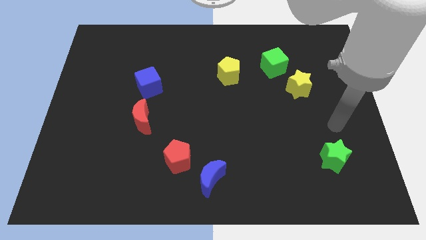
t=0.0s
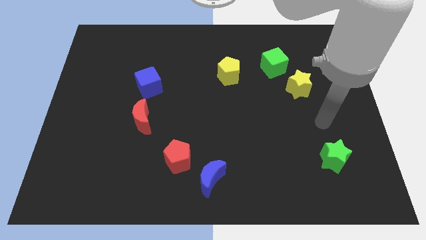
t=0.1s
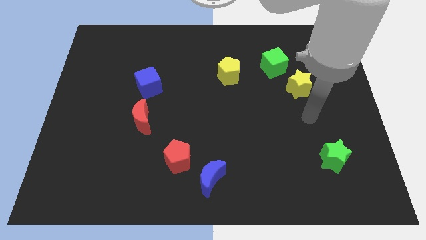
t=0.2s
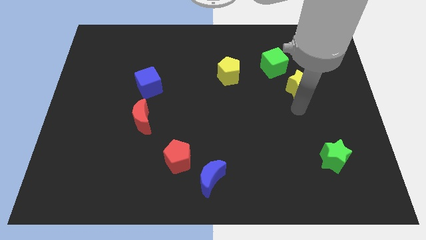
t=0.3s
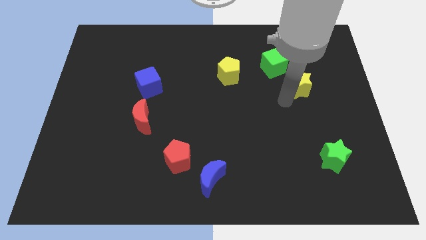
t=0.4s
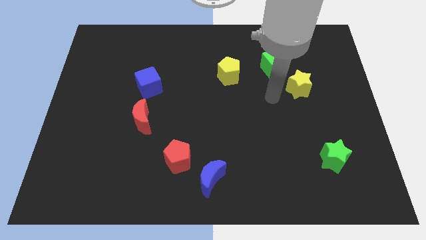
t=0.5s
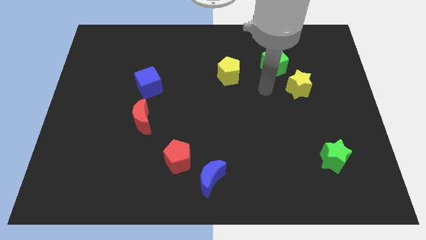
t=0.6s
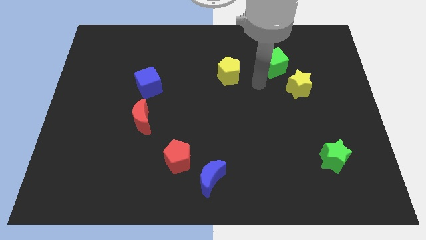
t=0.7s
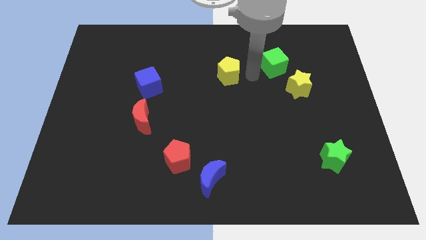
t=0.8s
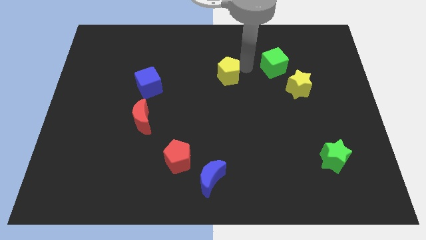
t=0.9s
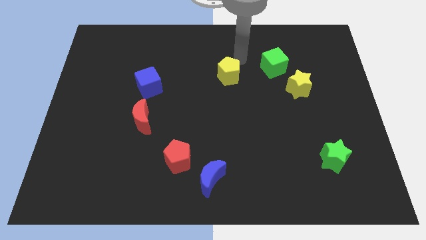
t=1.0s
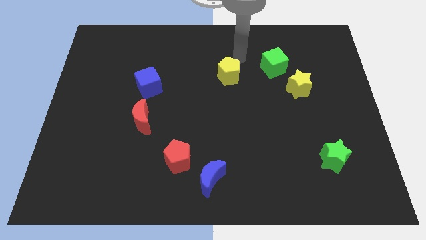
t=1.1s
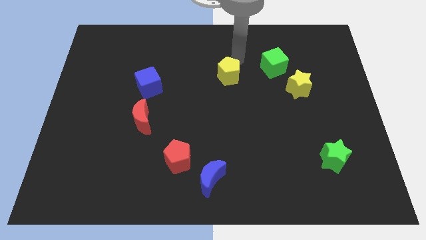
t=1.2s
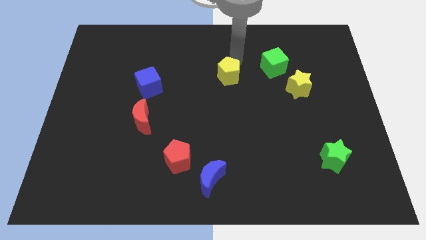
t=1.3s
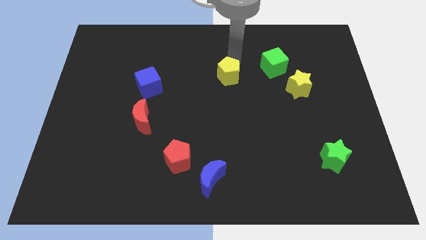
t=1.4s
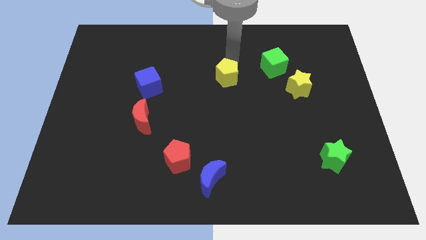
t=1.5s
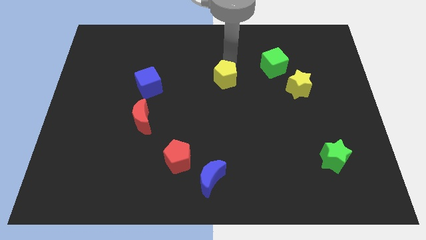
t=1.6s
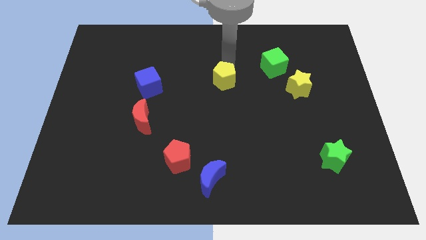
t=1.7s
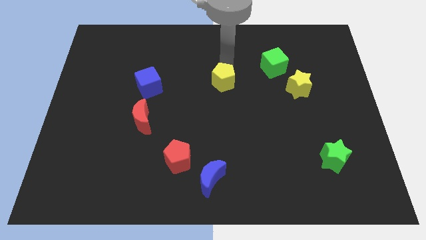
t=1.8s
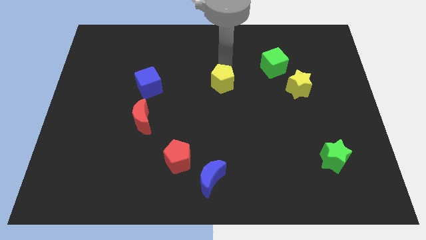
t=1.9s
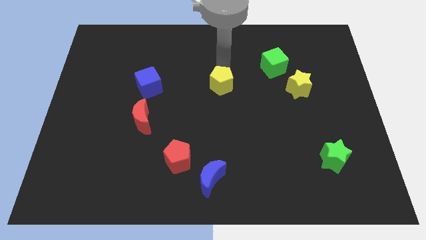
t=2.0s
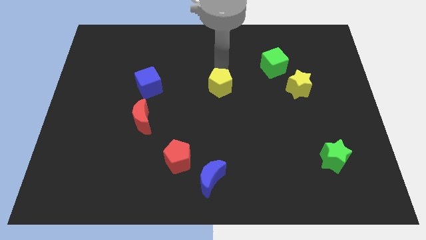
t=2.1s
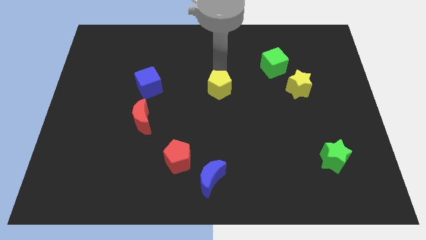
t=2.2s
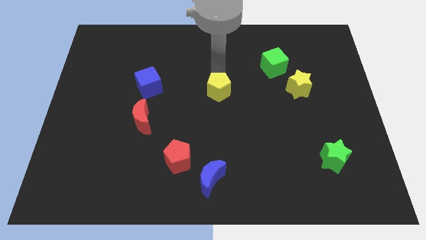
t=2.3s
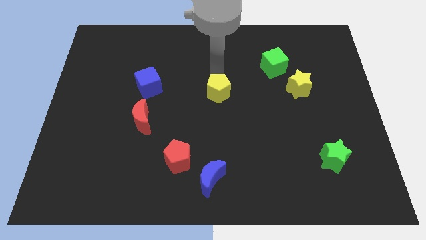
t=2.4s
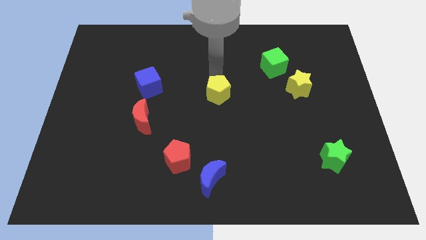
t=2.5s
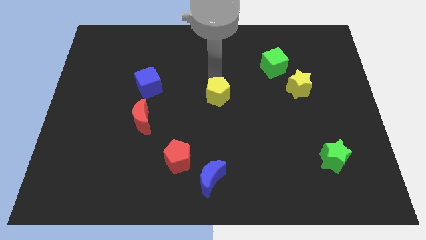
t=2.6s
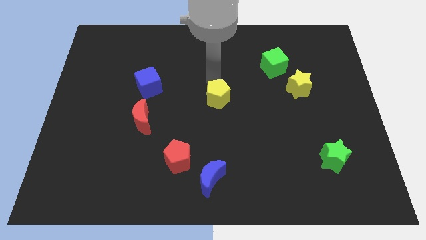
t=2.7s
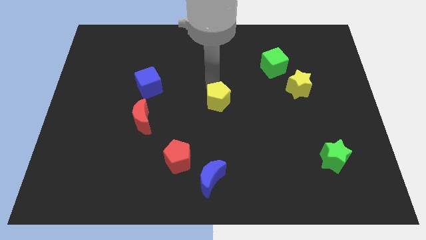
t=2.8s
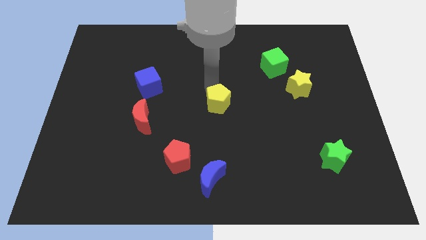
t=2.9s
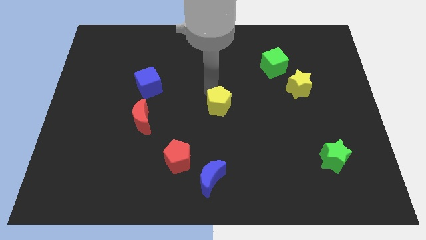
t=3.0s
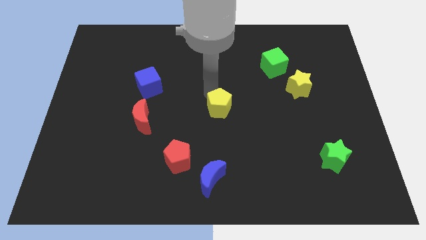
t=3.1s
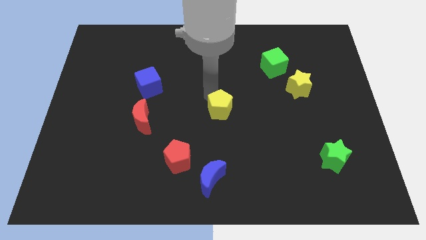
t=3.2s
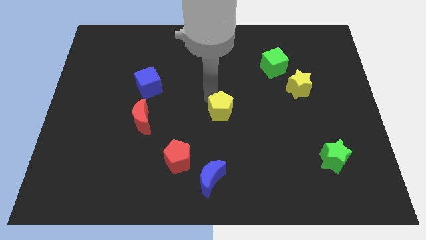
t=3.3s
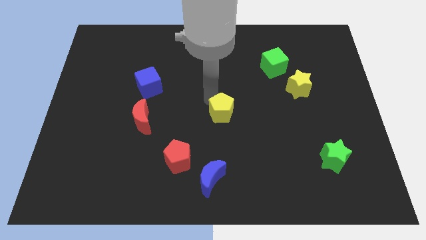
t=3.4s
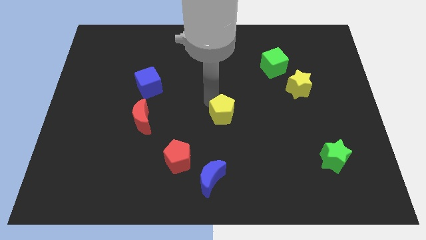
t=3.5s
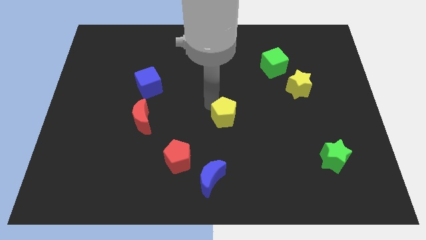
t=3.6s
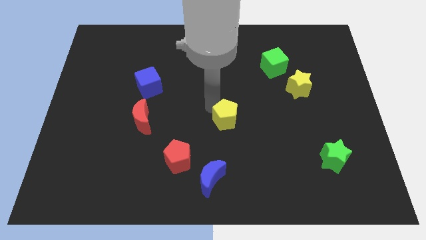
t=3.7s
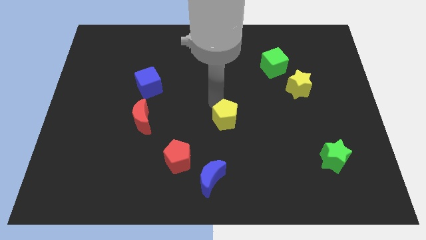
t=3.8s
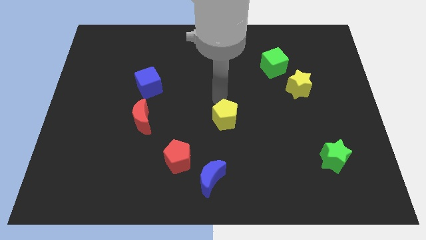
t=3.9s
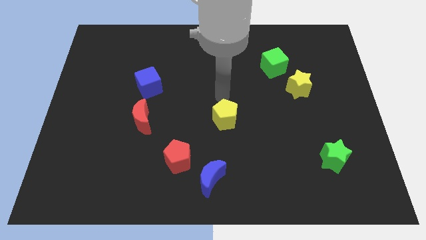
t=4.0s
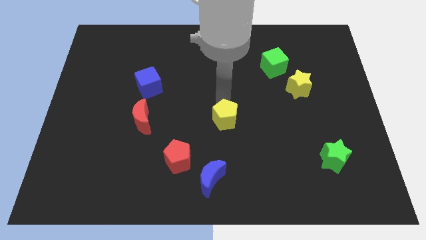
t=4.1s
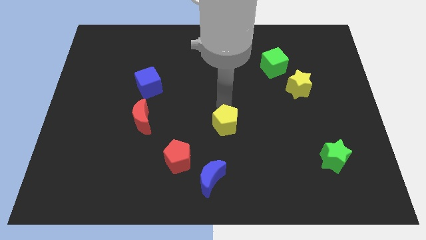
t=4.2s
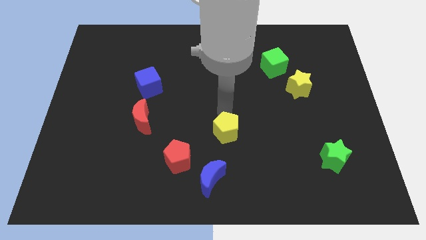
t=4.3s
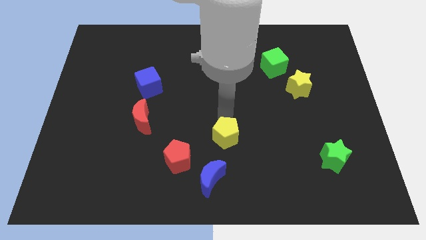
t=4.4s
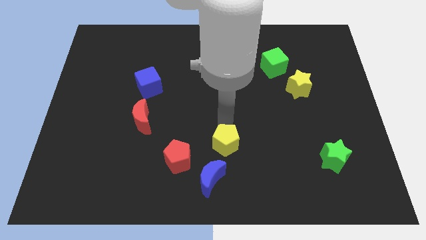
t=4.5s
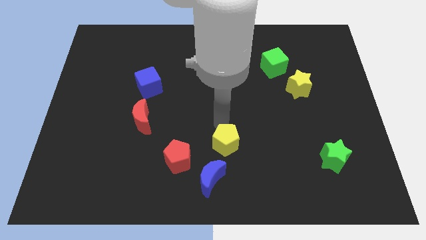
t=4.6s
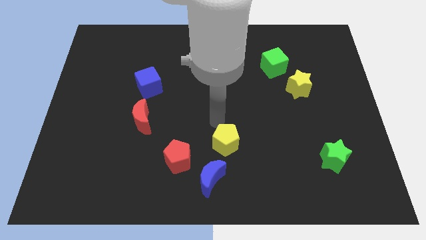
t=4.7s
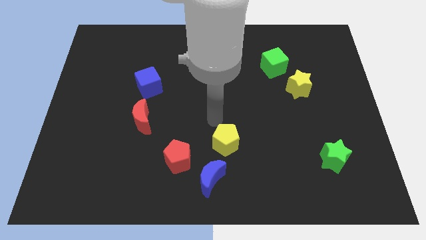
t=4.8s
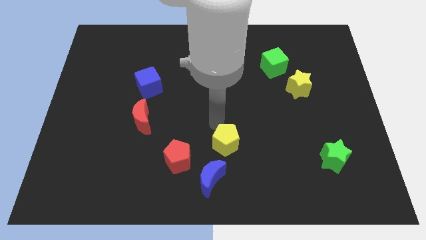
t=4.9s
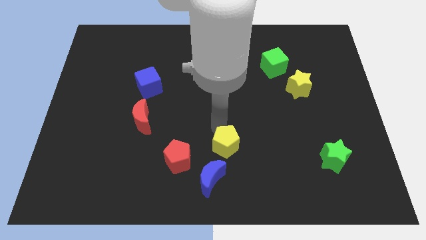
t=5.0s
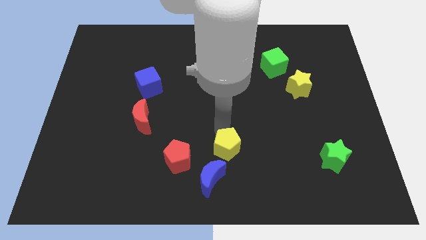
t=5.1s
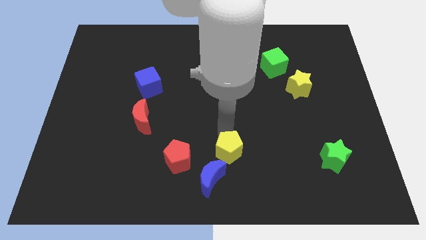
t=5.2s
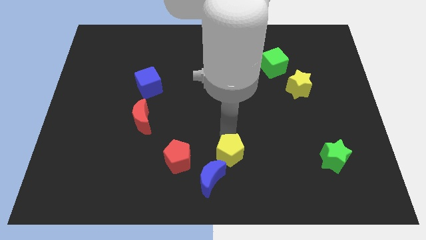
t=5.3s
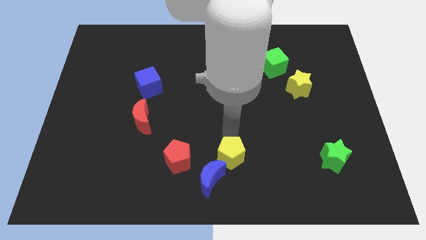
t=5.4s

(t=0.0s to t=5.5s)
put the yellow pentagon to the bottom side

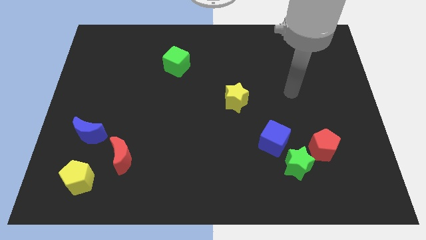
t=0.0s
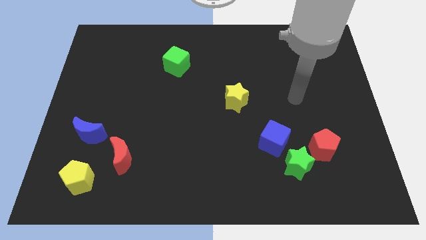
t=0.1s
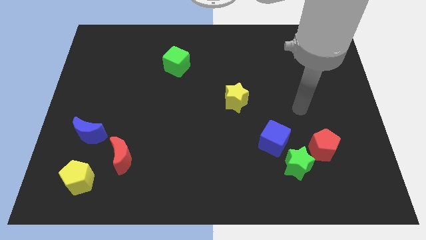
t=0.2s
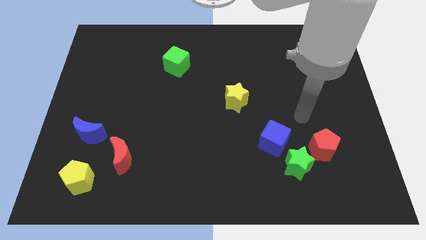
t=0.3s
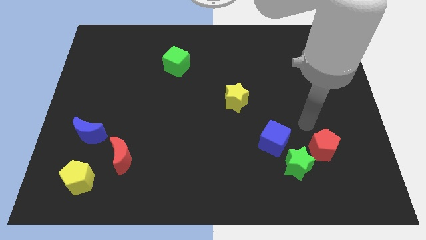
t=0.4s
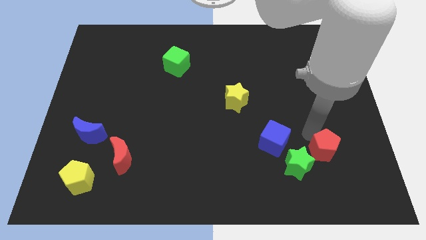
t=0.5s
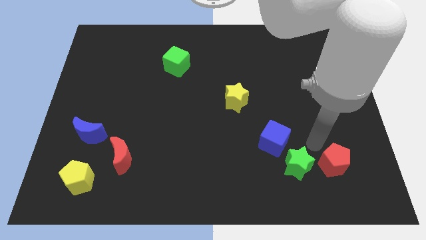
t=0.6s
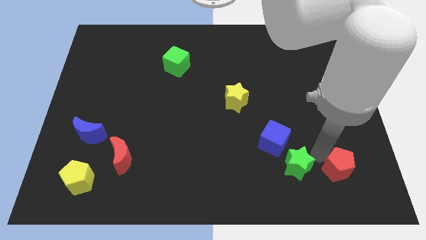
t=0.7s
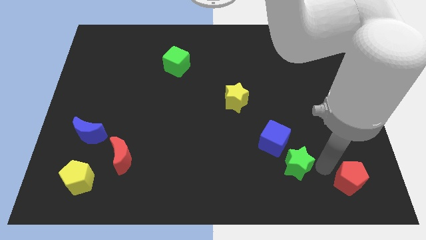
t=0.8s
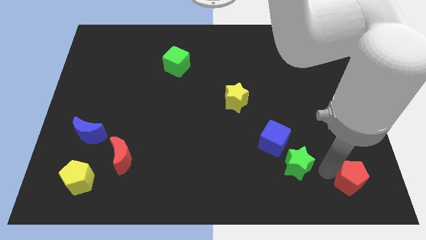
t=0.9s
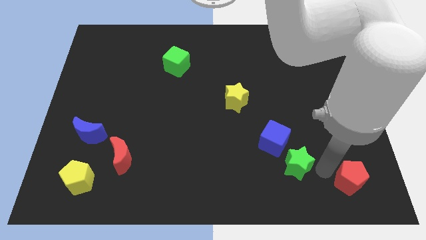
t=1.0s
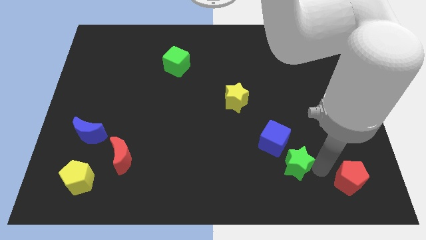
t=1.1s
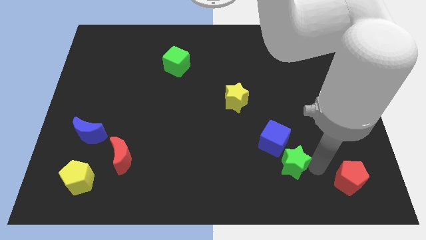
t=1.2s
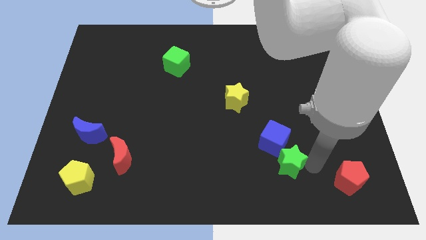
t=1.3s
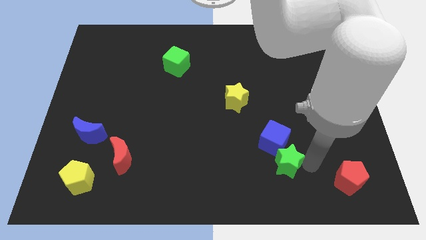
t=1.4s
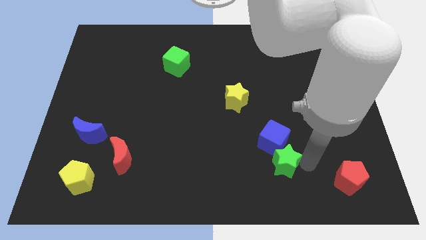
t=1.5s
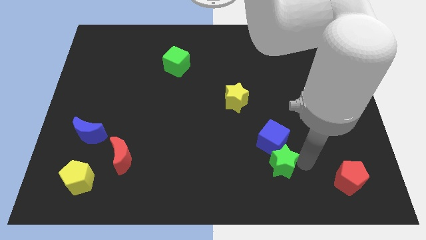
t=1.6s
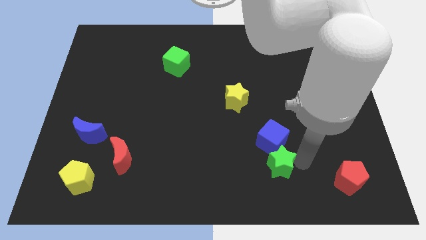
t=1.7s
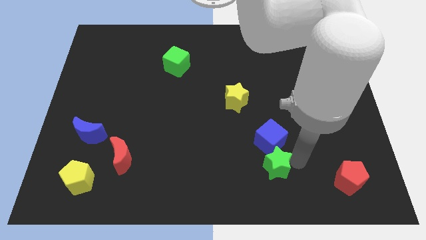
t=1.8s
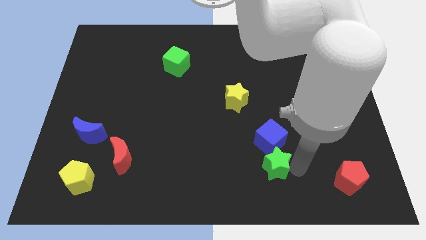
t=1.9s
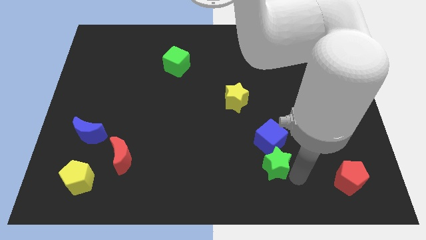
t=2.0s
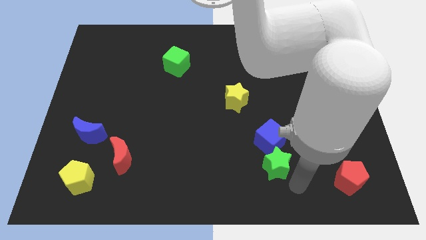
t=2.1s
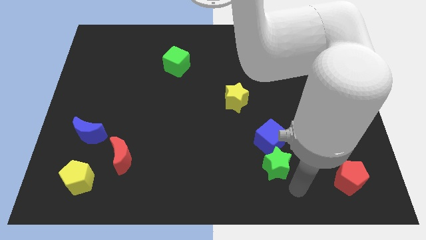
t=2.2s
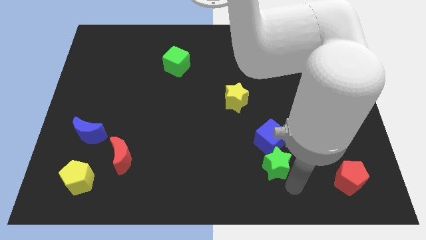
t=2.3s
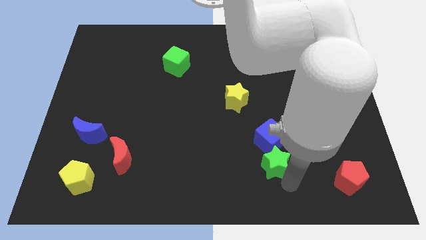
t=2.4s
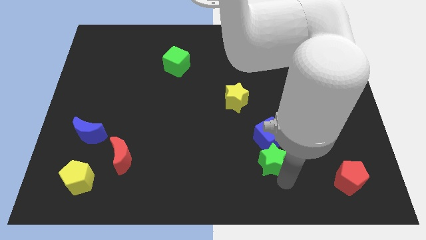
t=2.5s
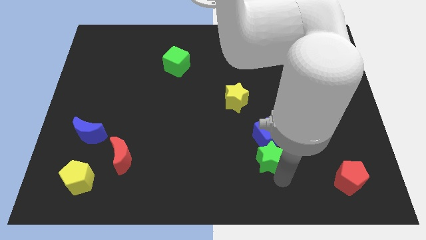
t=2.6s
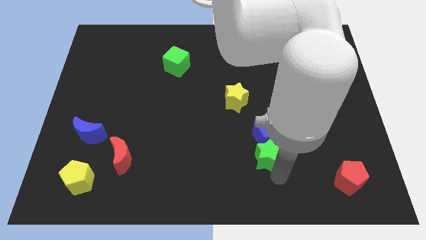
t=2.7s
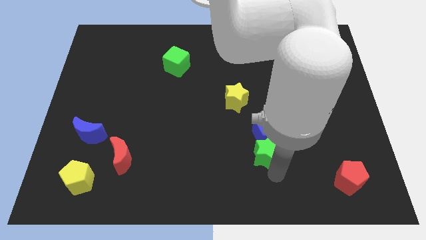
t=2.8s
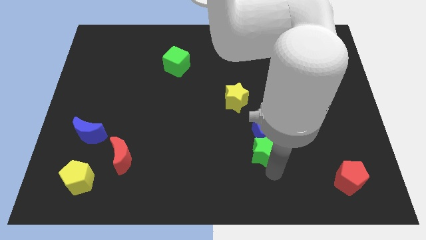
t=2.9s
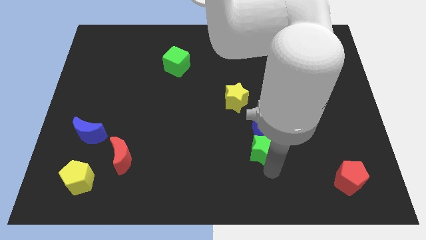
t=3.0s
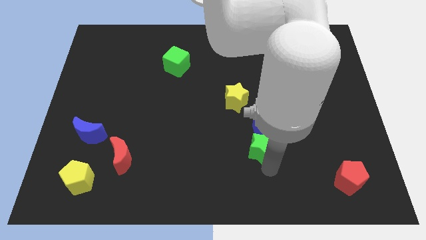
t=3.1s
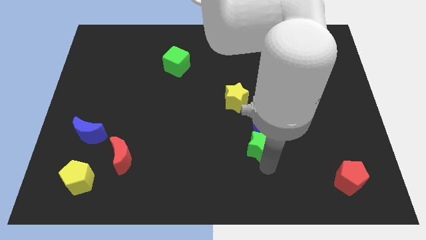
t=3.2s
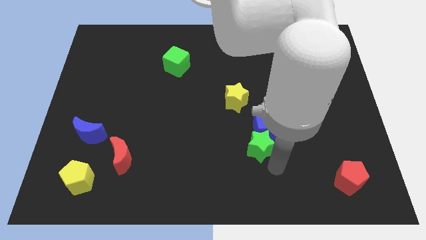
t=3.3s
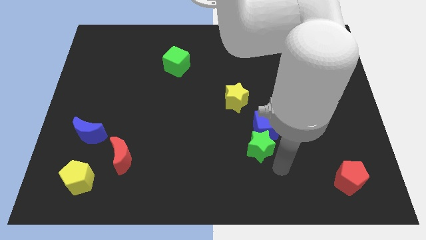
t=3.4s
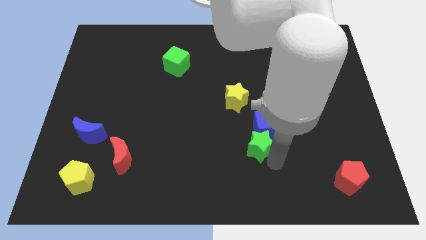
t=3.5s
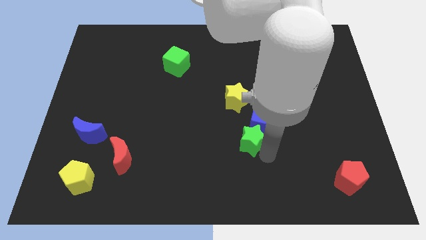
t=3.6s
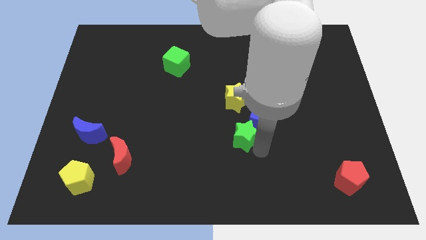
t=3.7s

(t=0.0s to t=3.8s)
slide the green star to the center
